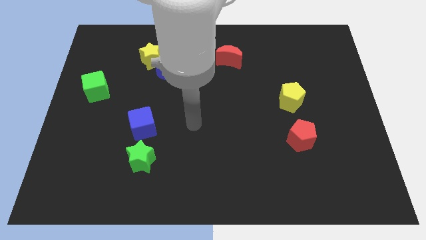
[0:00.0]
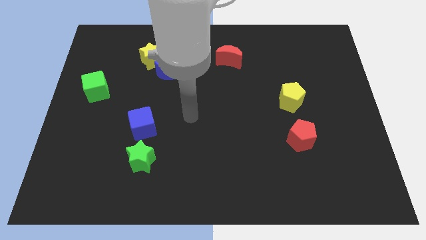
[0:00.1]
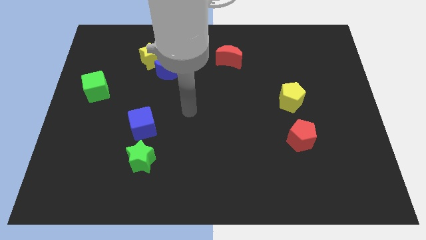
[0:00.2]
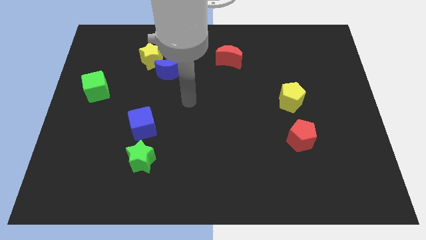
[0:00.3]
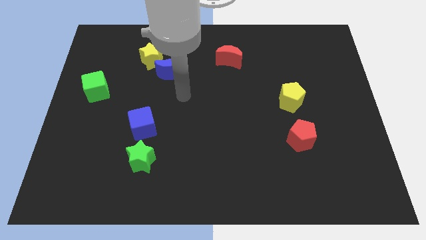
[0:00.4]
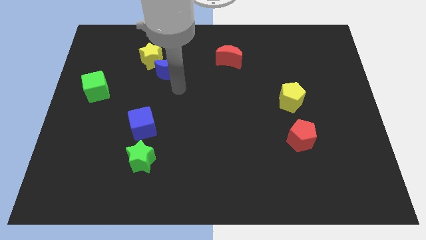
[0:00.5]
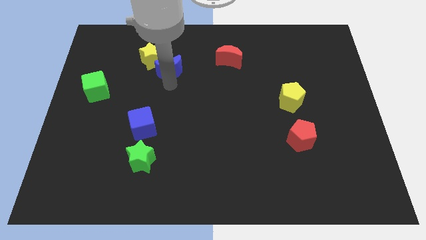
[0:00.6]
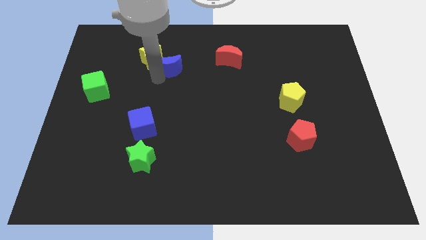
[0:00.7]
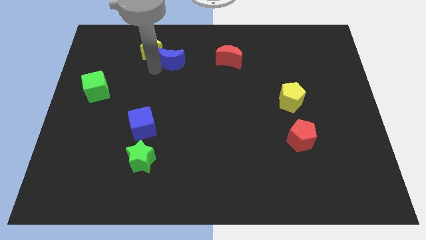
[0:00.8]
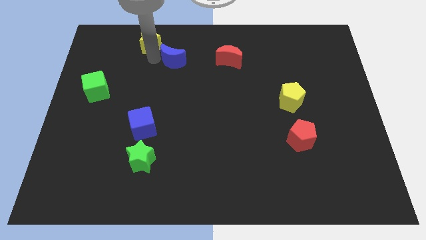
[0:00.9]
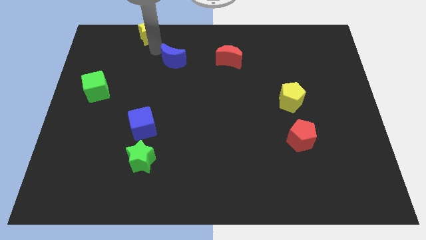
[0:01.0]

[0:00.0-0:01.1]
move the blue moon away from the yellow star

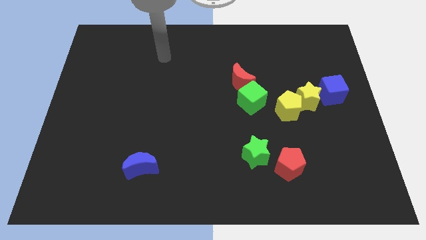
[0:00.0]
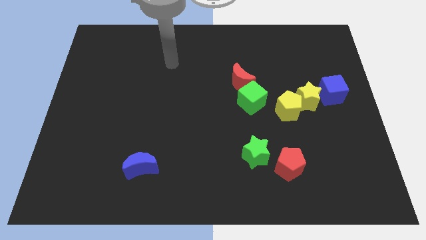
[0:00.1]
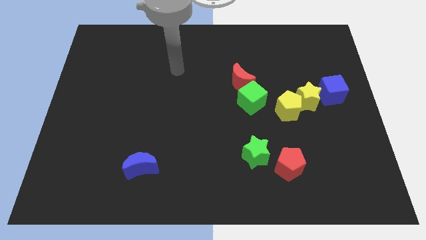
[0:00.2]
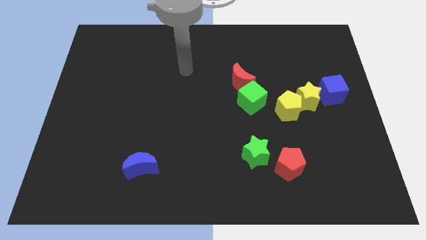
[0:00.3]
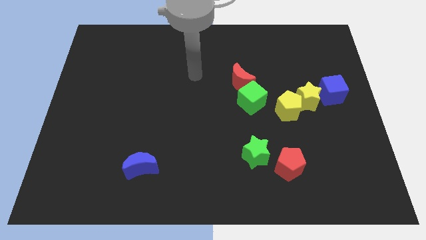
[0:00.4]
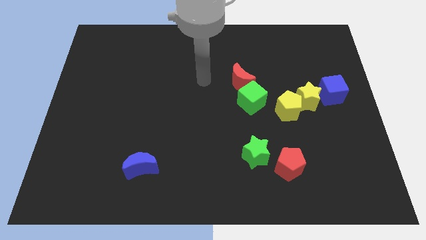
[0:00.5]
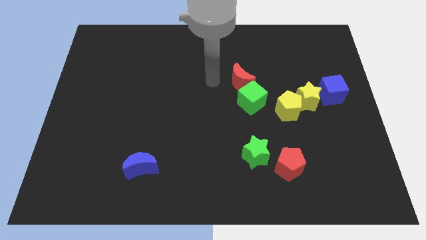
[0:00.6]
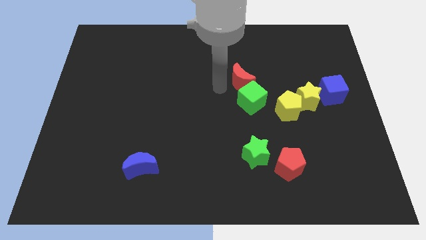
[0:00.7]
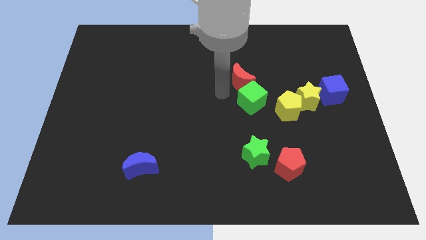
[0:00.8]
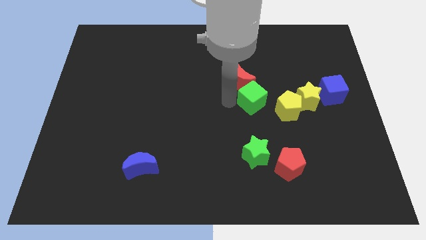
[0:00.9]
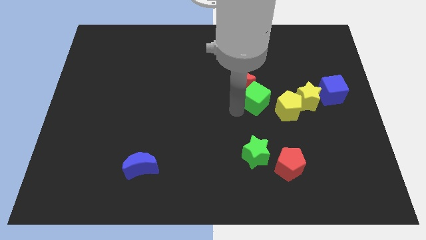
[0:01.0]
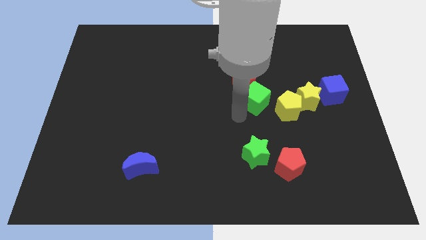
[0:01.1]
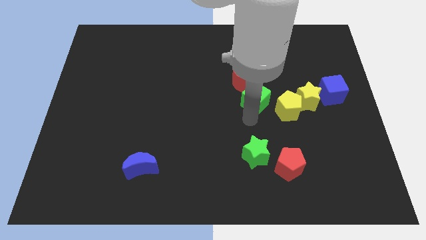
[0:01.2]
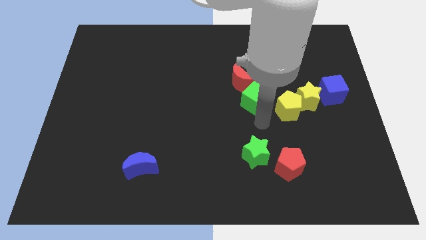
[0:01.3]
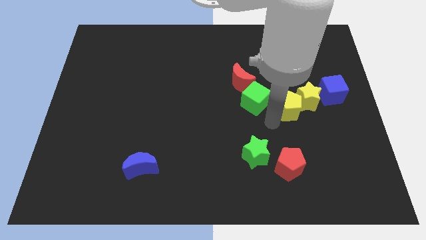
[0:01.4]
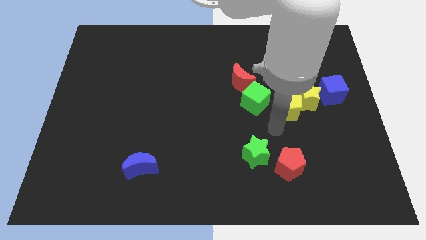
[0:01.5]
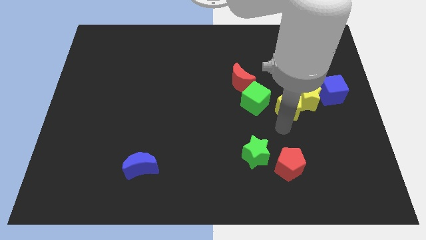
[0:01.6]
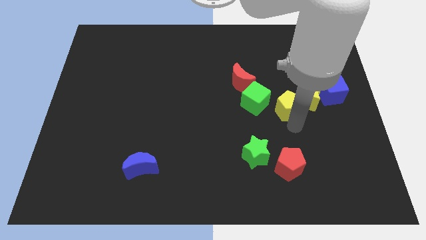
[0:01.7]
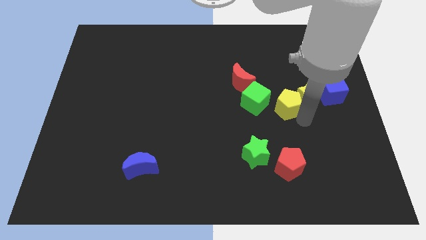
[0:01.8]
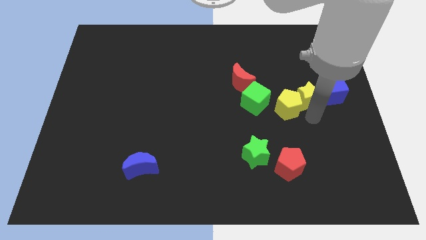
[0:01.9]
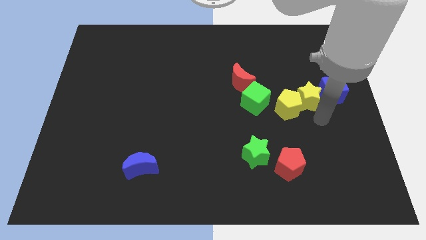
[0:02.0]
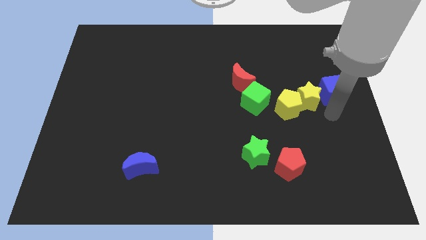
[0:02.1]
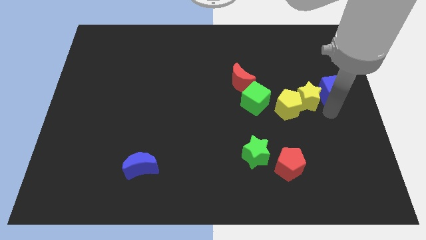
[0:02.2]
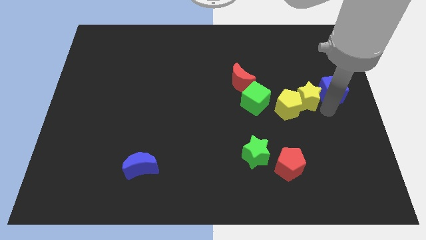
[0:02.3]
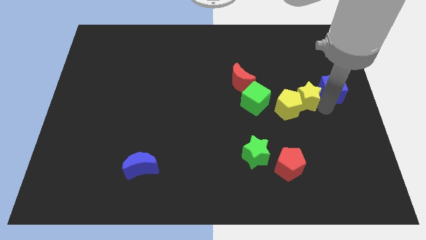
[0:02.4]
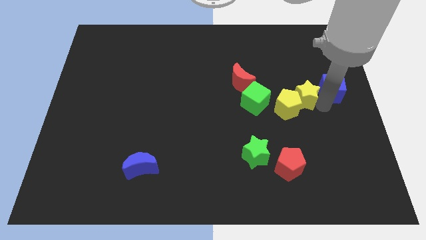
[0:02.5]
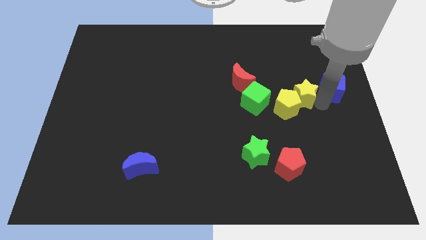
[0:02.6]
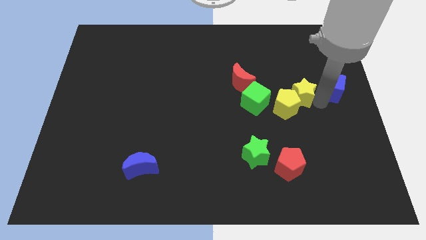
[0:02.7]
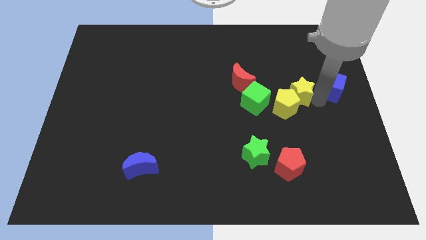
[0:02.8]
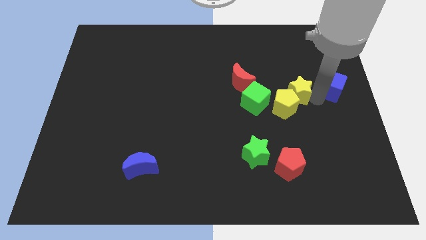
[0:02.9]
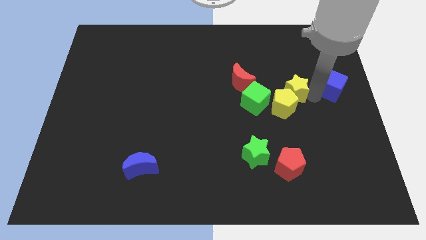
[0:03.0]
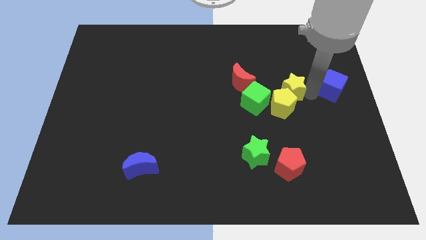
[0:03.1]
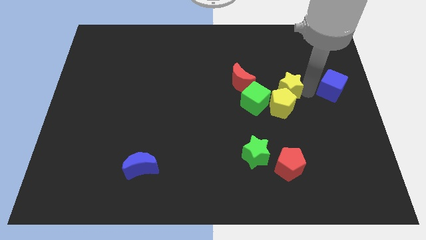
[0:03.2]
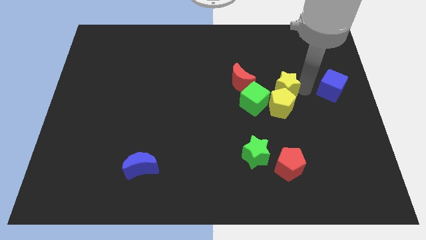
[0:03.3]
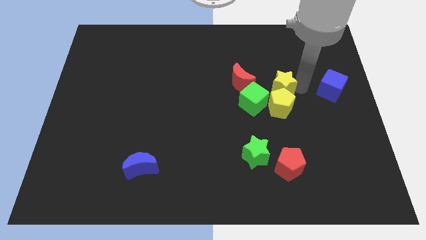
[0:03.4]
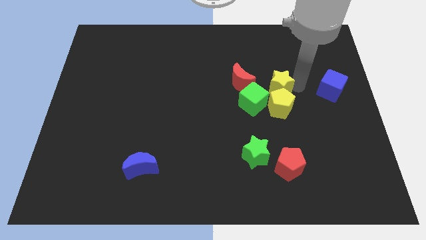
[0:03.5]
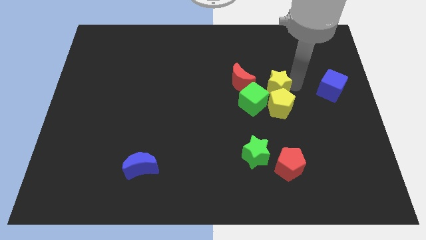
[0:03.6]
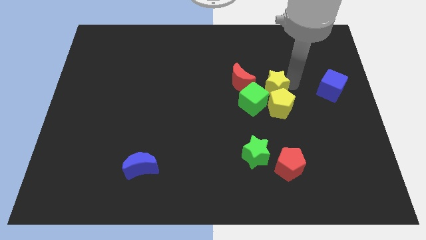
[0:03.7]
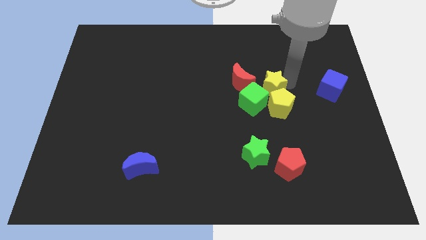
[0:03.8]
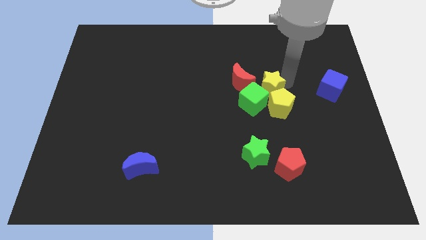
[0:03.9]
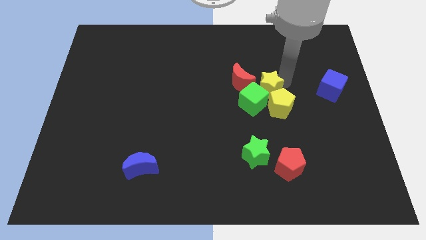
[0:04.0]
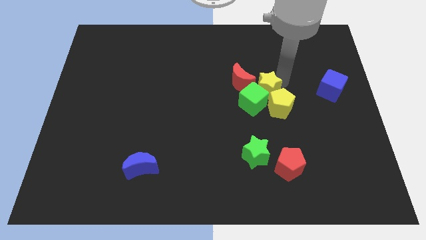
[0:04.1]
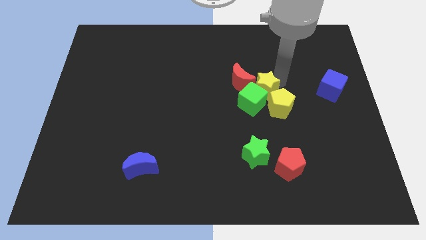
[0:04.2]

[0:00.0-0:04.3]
separate the yellow star from the yellow pentagon and blue cube

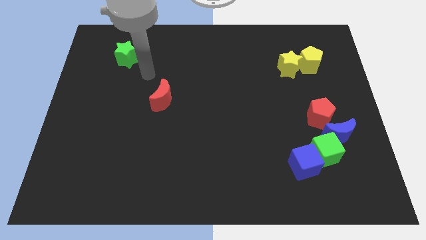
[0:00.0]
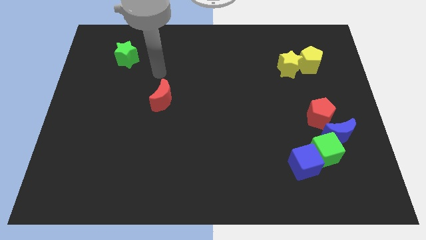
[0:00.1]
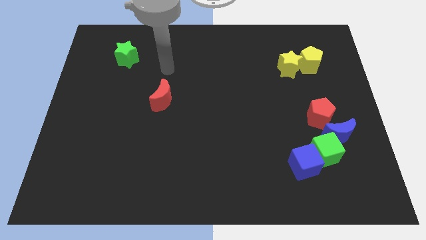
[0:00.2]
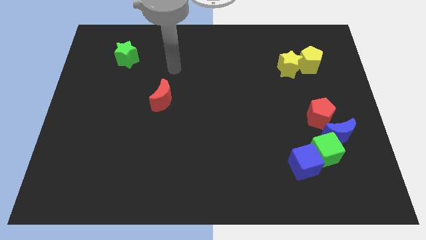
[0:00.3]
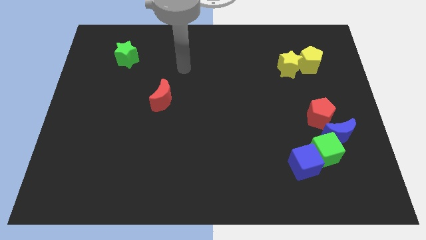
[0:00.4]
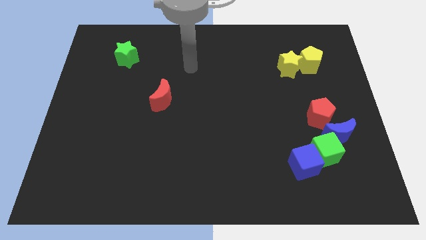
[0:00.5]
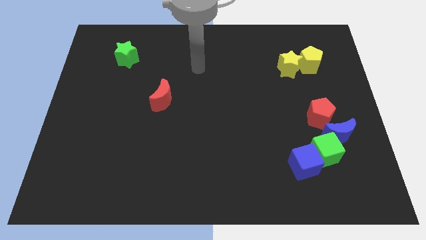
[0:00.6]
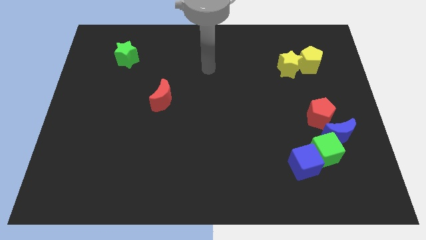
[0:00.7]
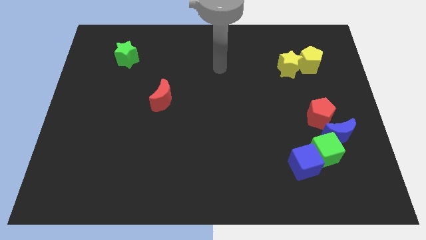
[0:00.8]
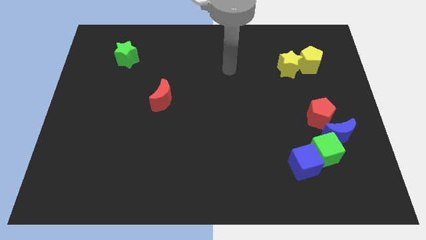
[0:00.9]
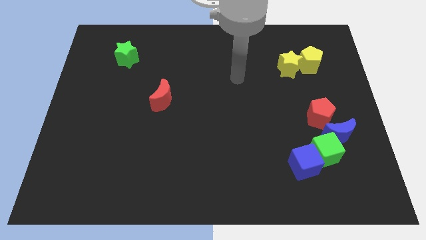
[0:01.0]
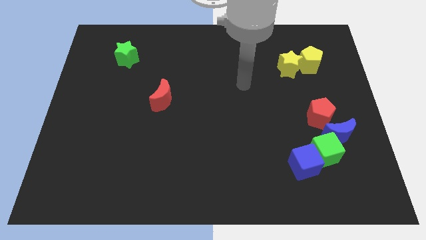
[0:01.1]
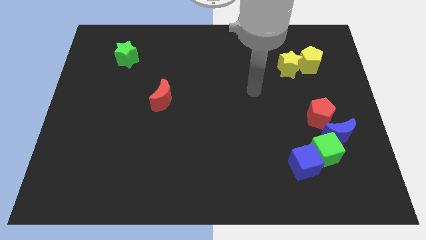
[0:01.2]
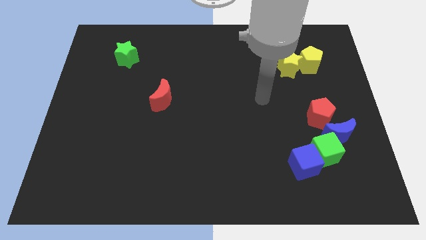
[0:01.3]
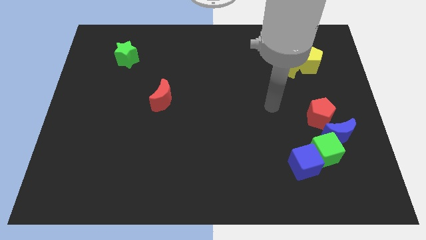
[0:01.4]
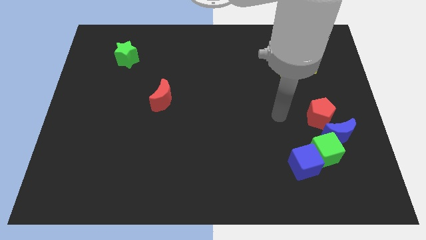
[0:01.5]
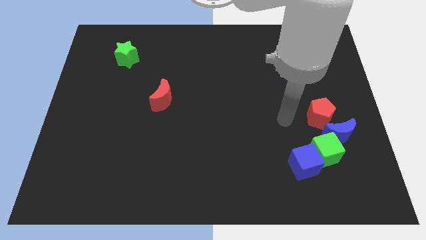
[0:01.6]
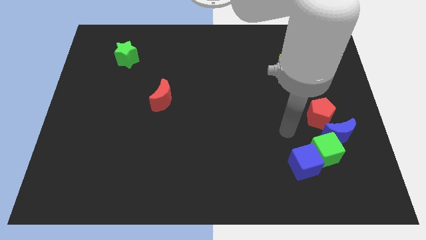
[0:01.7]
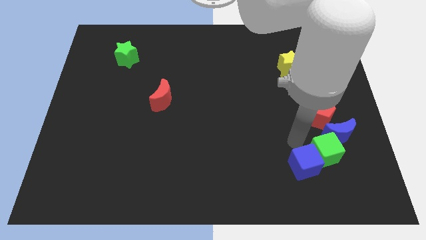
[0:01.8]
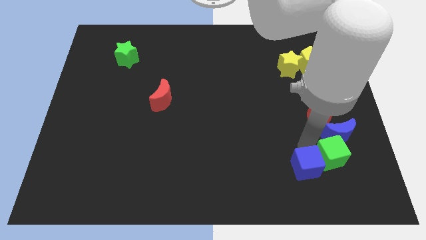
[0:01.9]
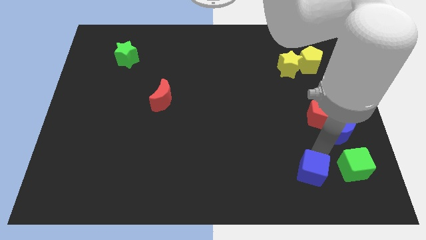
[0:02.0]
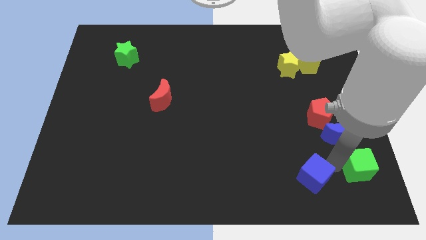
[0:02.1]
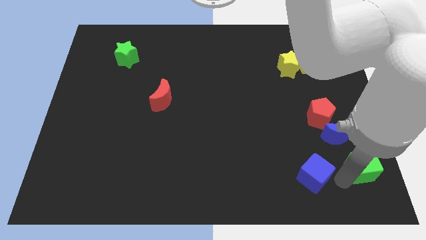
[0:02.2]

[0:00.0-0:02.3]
pull the blue cube apart from the green cube

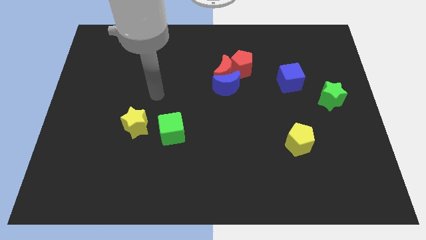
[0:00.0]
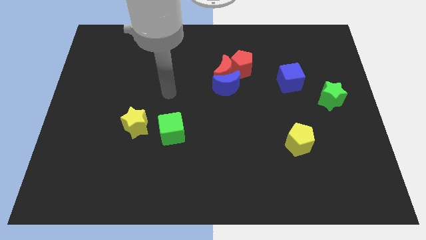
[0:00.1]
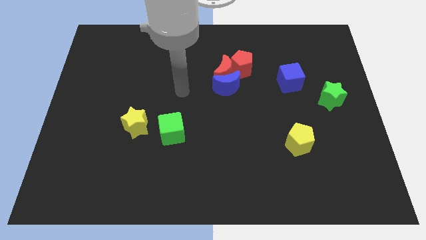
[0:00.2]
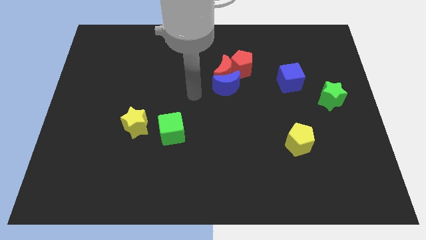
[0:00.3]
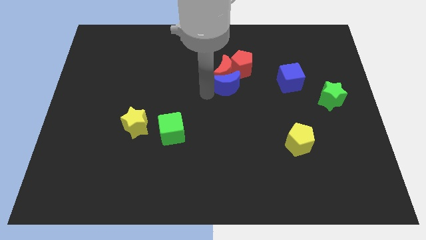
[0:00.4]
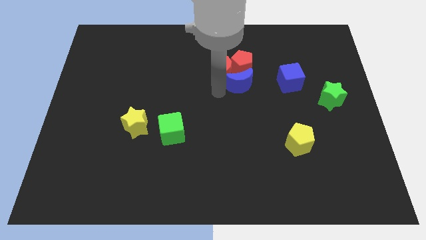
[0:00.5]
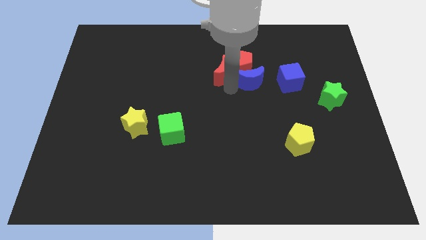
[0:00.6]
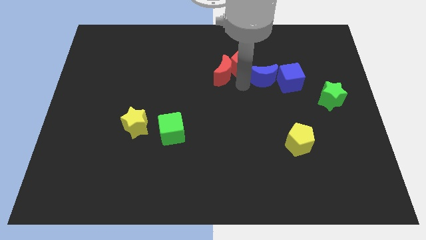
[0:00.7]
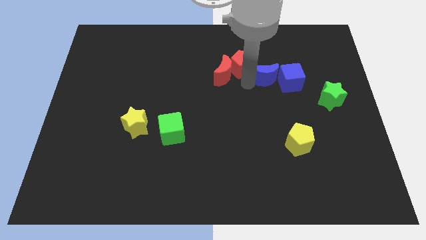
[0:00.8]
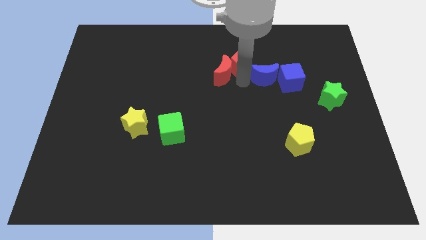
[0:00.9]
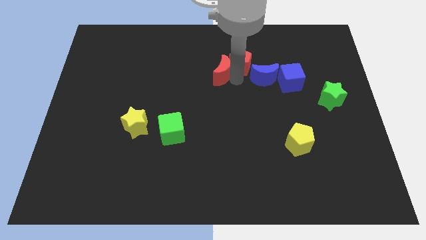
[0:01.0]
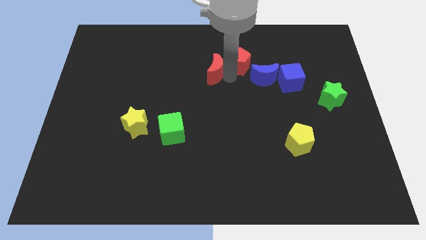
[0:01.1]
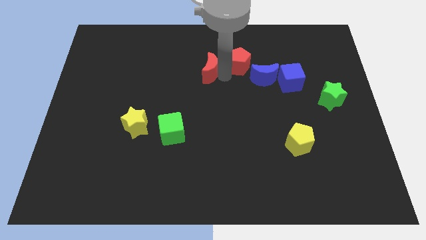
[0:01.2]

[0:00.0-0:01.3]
move the red moon away from the blue moon and red pentagon

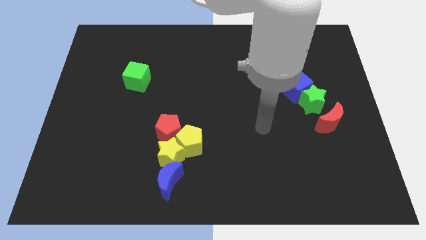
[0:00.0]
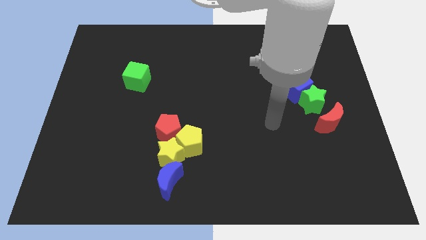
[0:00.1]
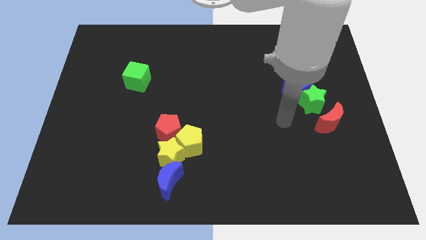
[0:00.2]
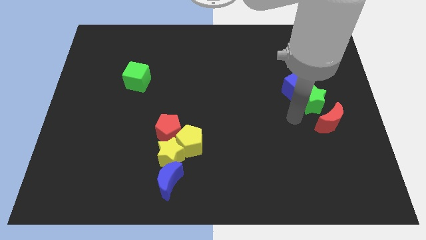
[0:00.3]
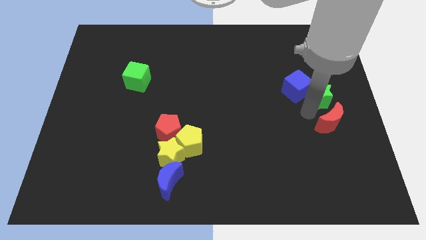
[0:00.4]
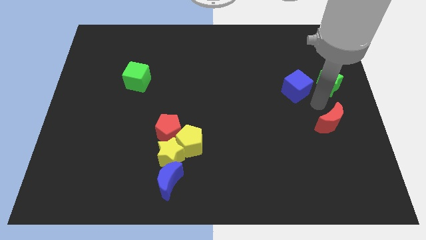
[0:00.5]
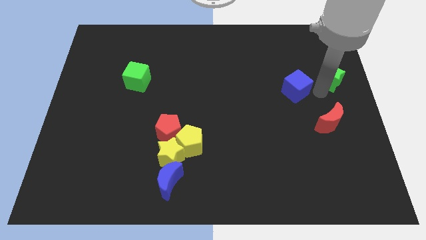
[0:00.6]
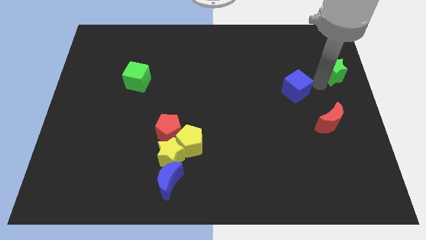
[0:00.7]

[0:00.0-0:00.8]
pull the blue cube apart from the green star
